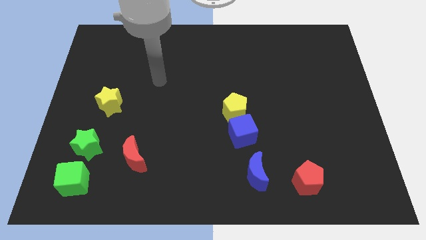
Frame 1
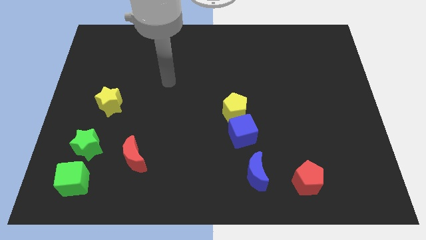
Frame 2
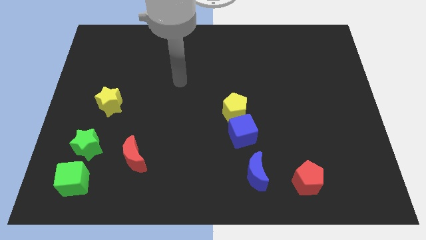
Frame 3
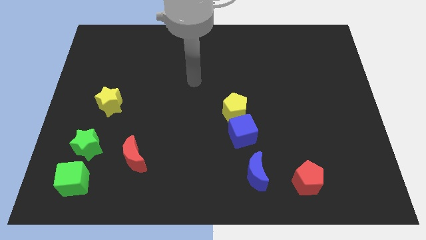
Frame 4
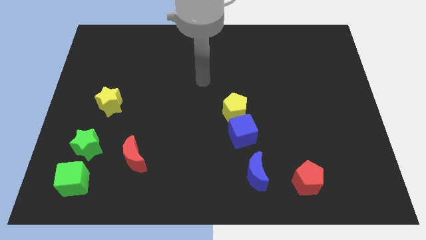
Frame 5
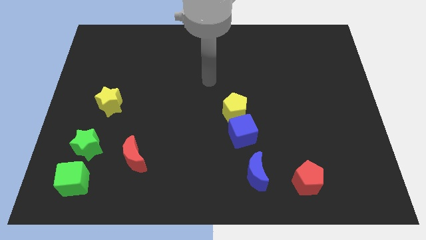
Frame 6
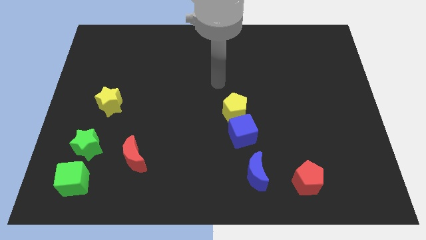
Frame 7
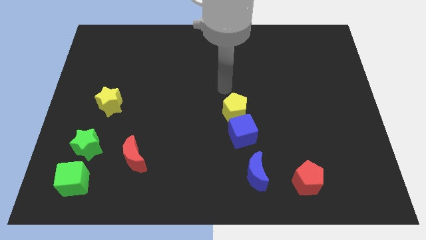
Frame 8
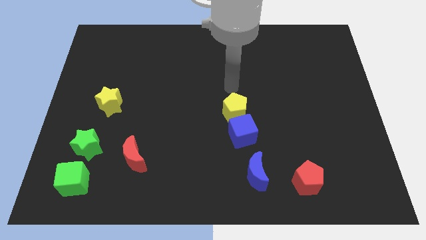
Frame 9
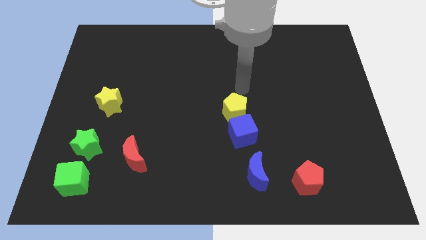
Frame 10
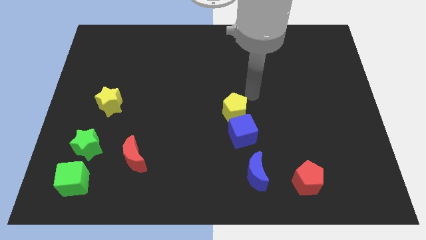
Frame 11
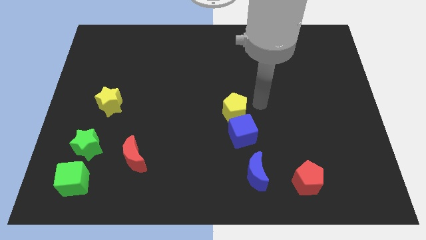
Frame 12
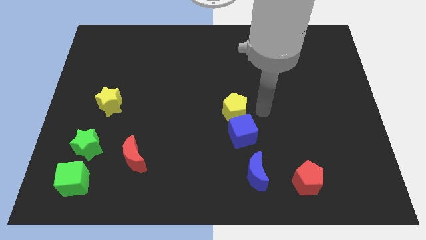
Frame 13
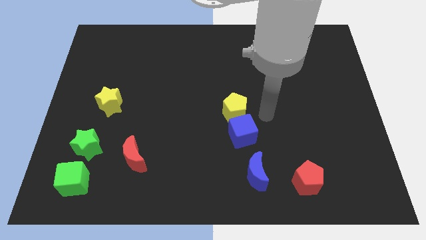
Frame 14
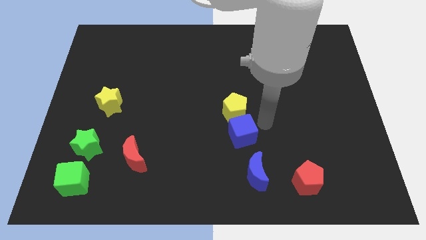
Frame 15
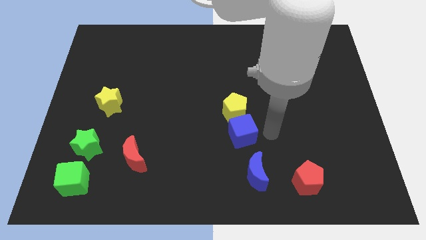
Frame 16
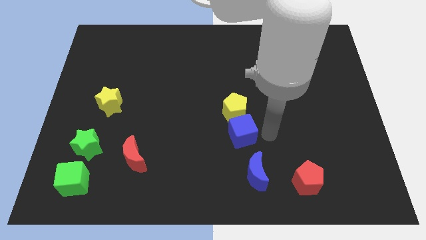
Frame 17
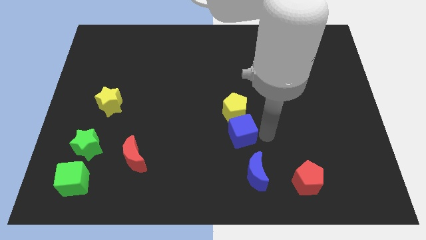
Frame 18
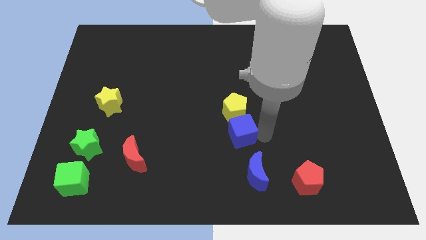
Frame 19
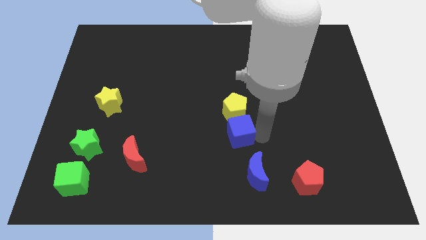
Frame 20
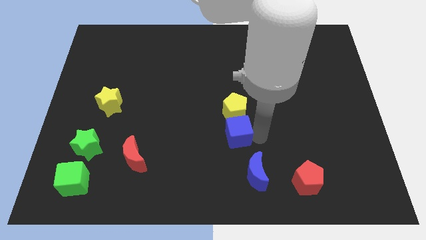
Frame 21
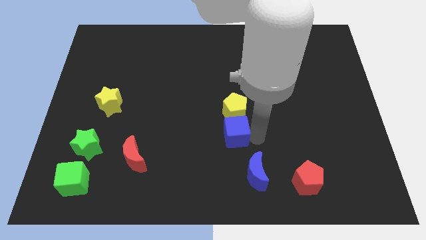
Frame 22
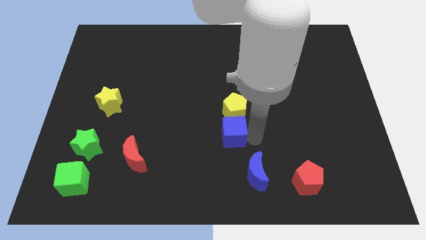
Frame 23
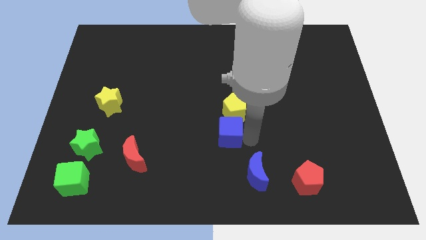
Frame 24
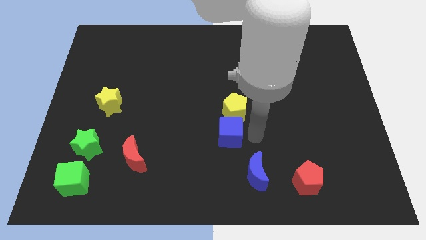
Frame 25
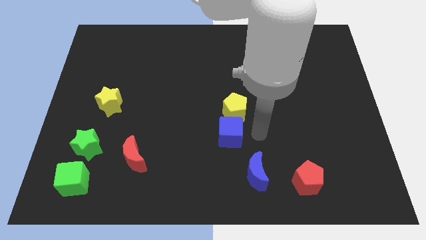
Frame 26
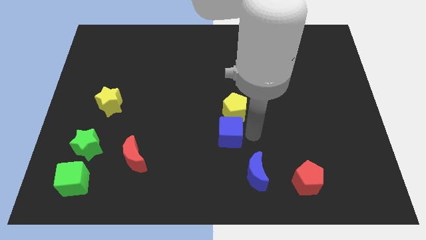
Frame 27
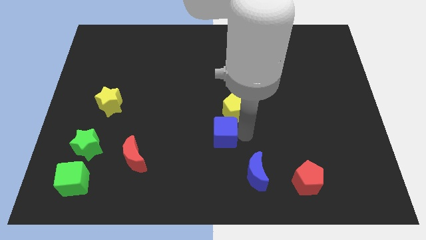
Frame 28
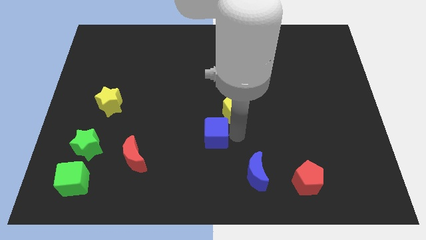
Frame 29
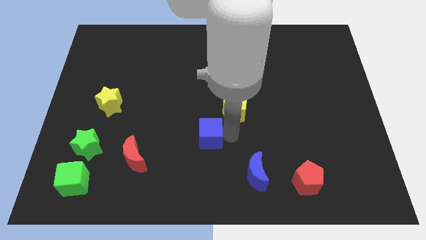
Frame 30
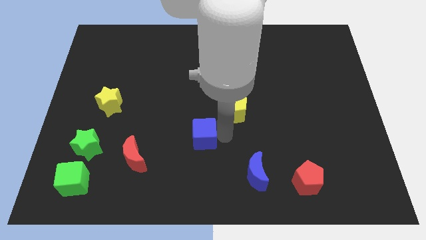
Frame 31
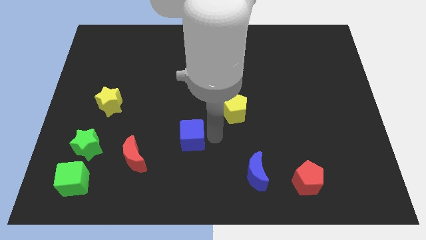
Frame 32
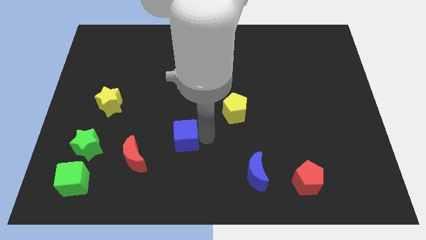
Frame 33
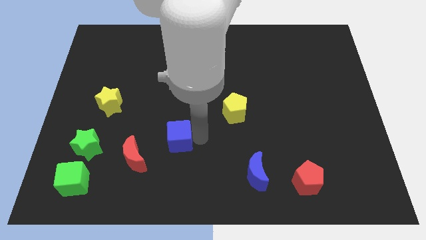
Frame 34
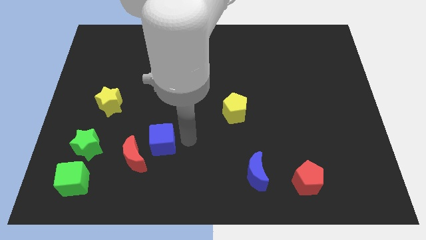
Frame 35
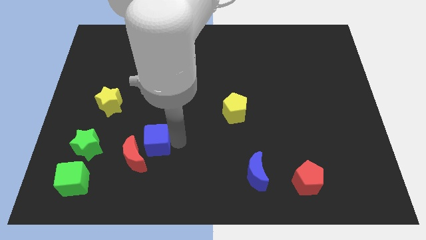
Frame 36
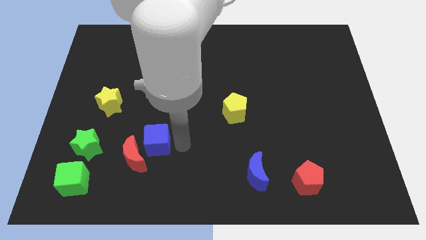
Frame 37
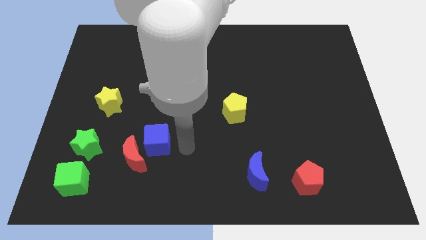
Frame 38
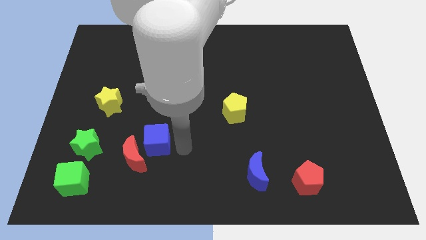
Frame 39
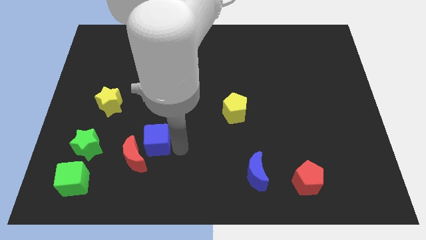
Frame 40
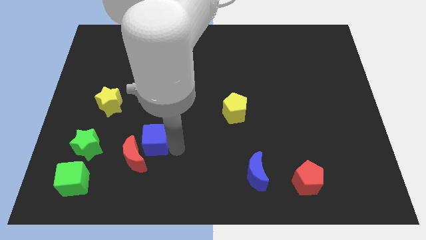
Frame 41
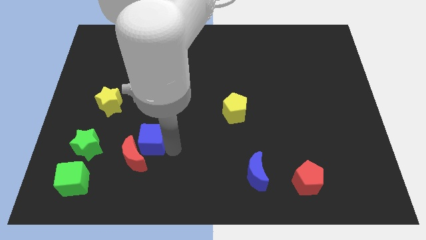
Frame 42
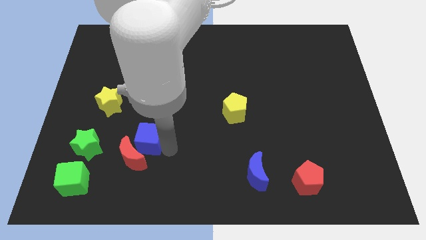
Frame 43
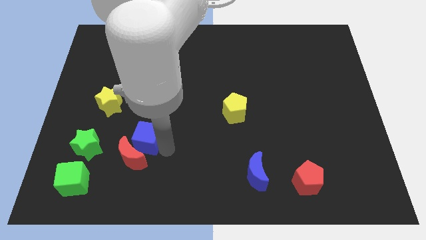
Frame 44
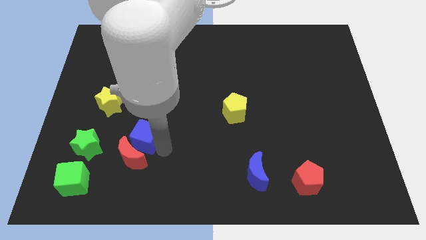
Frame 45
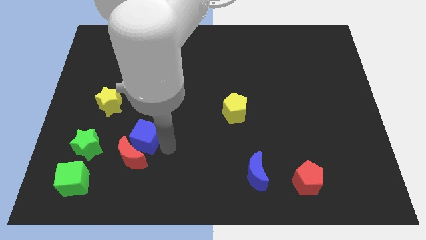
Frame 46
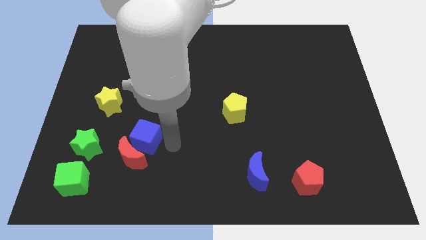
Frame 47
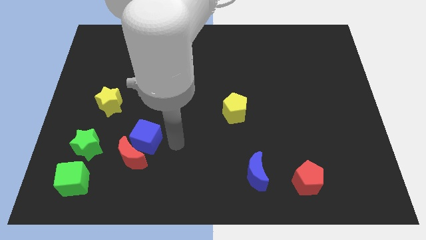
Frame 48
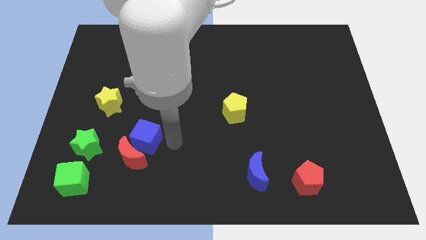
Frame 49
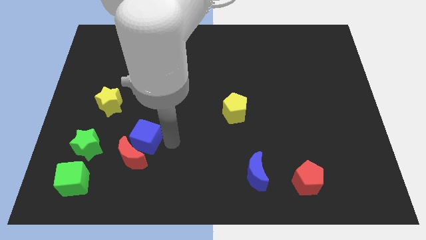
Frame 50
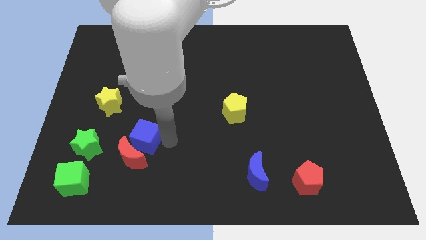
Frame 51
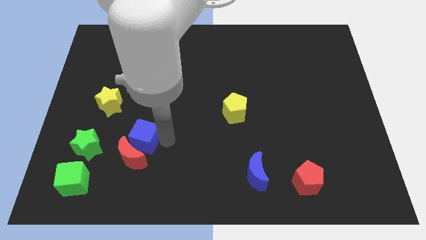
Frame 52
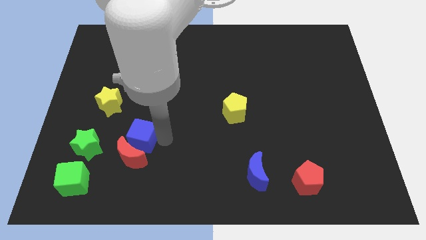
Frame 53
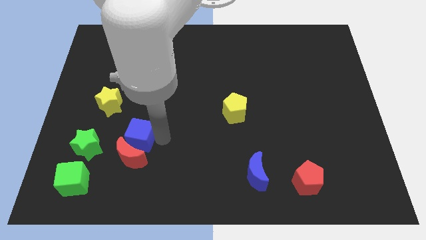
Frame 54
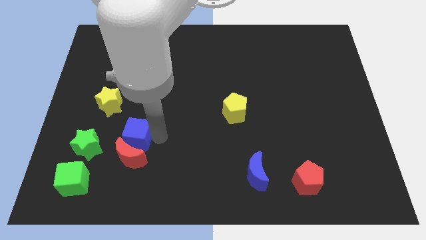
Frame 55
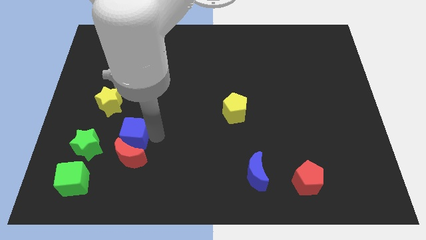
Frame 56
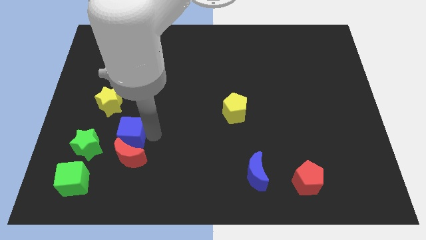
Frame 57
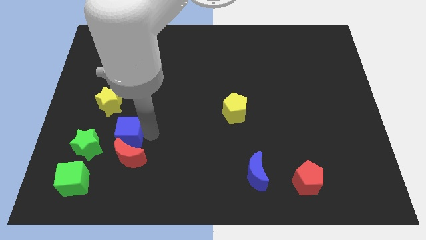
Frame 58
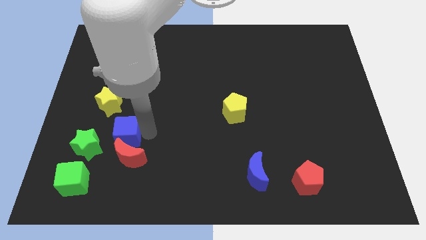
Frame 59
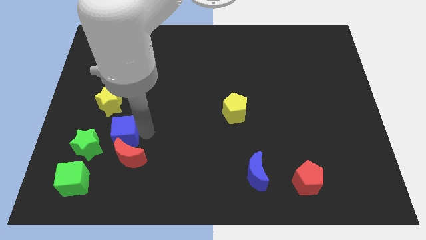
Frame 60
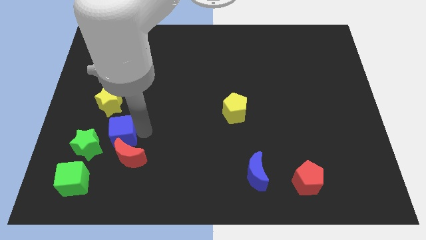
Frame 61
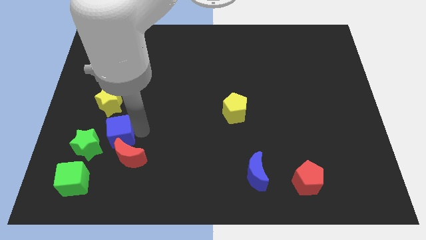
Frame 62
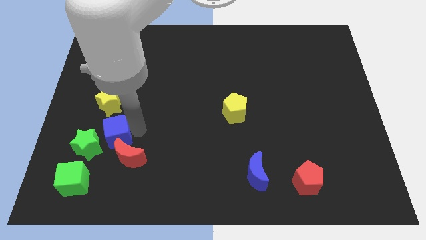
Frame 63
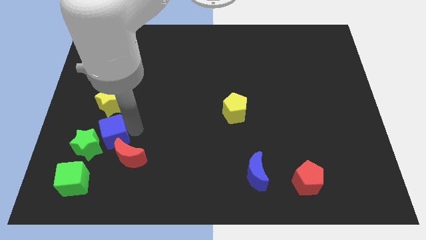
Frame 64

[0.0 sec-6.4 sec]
slide the blue cube to the green star

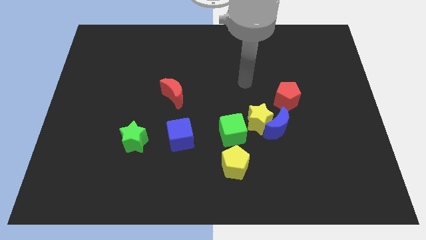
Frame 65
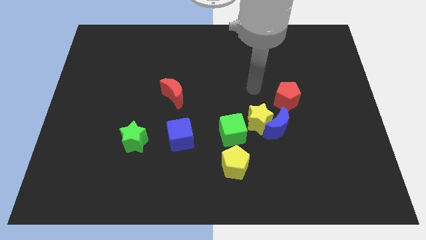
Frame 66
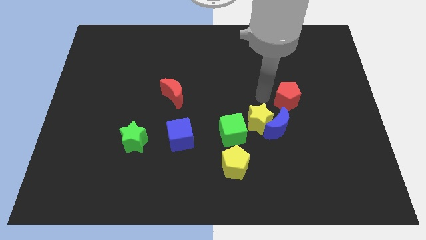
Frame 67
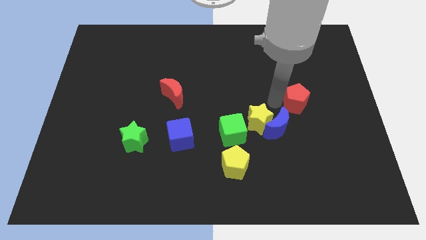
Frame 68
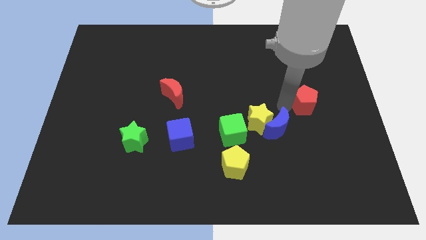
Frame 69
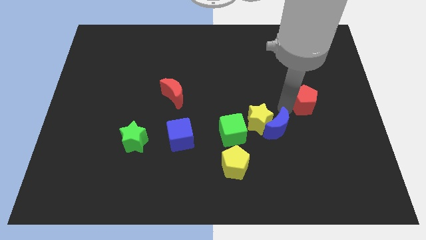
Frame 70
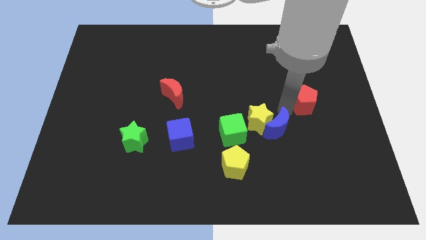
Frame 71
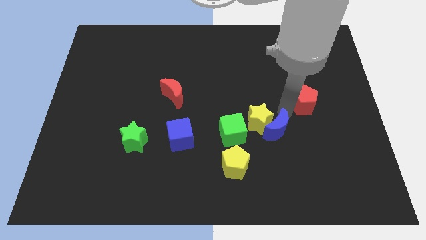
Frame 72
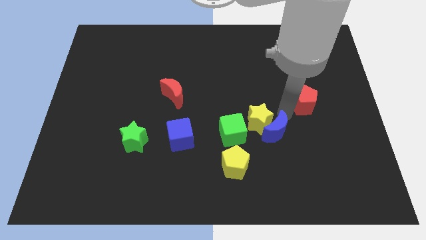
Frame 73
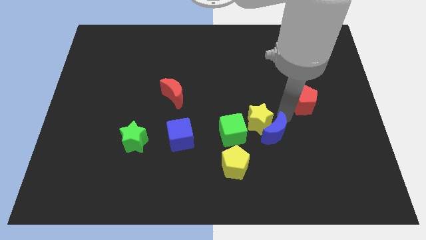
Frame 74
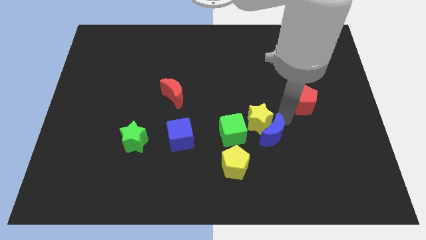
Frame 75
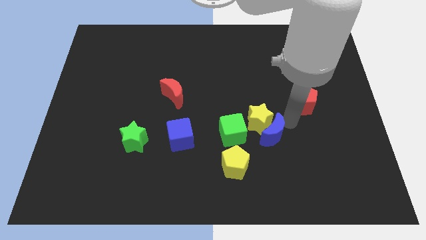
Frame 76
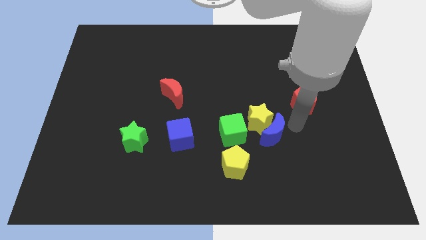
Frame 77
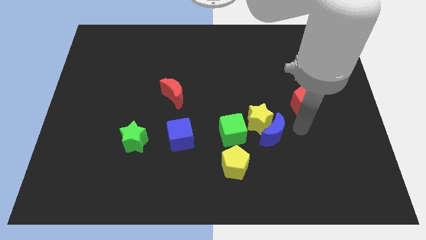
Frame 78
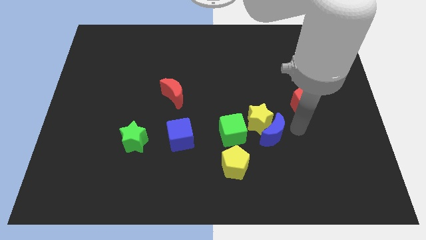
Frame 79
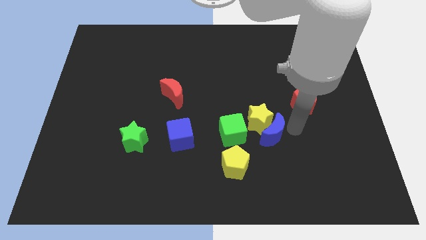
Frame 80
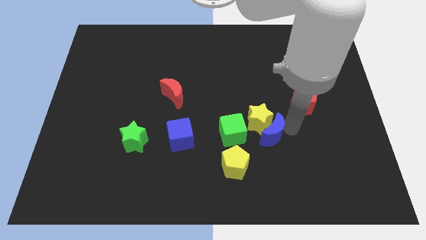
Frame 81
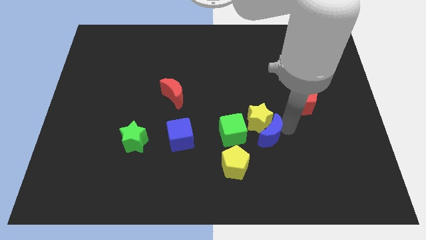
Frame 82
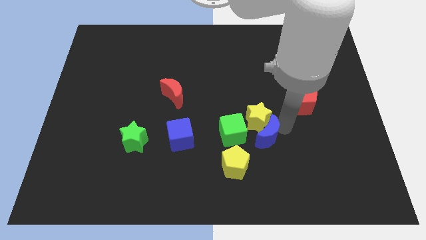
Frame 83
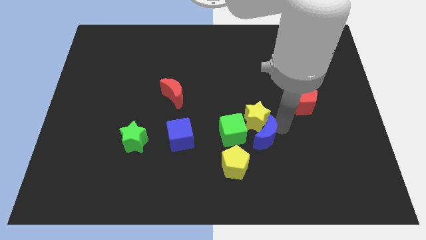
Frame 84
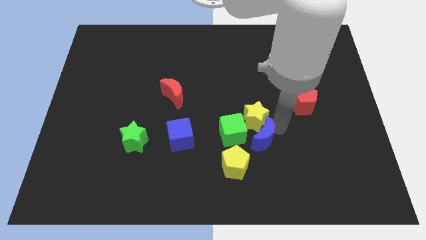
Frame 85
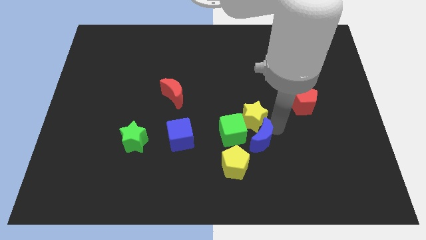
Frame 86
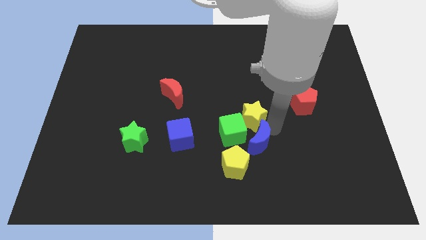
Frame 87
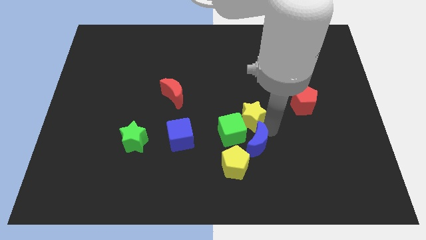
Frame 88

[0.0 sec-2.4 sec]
slide the blue moon close to the green cube
